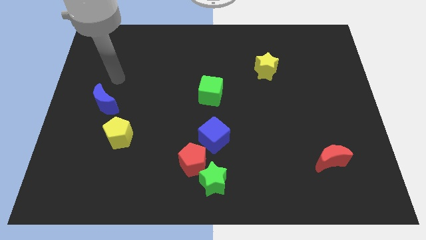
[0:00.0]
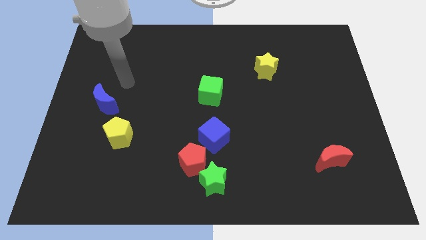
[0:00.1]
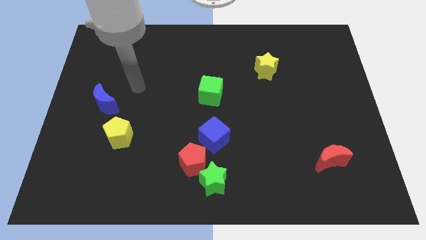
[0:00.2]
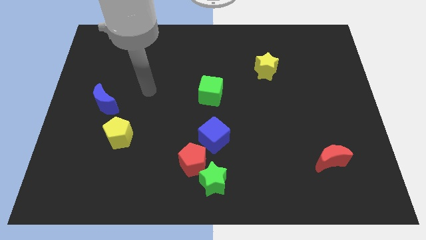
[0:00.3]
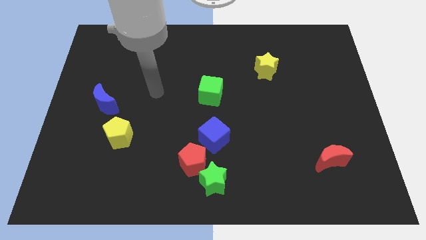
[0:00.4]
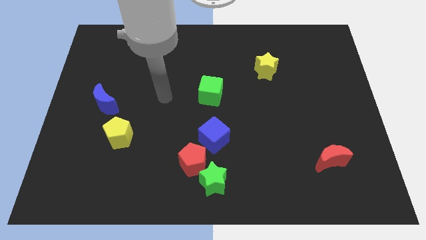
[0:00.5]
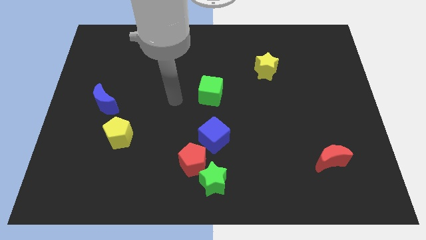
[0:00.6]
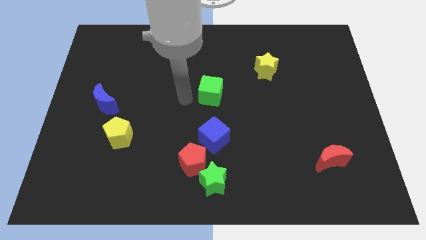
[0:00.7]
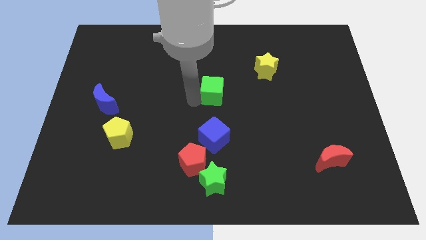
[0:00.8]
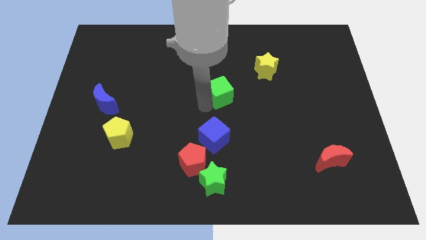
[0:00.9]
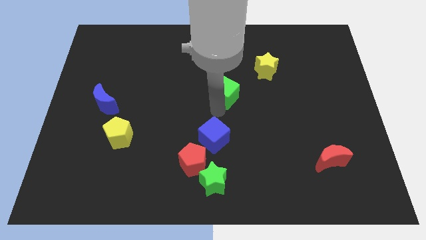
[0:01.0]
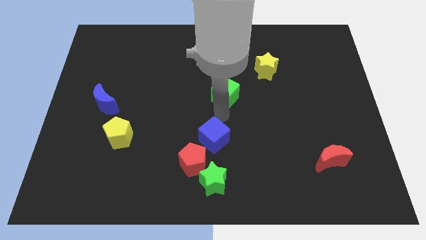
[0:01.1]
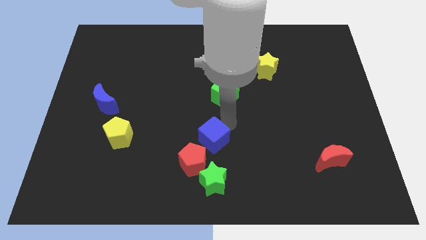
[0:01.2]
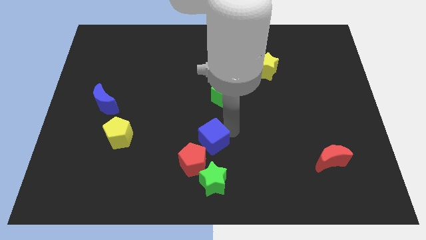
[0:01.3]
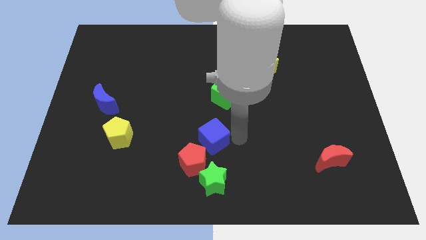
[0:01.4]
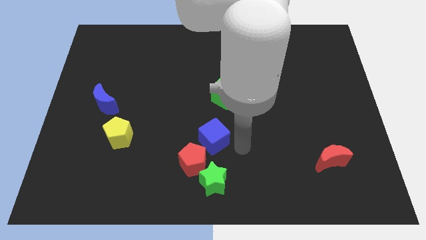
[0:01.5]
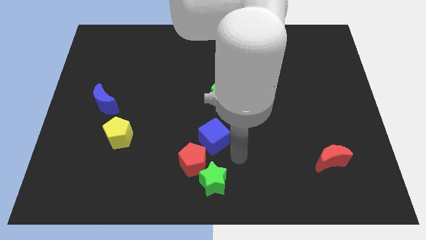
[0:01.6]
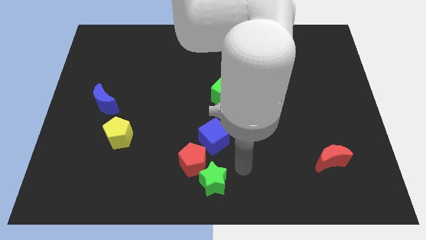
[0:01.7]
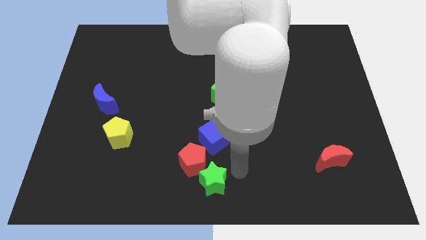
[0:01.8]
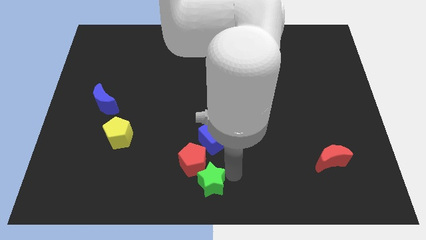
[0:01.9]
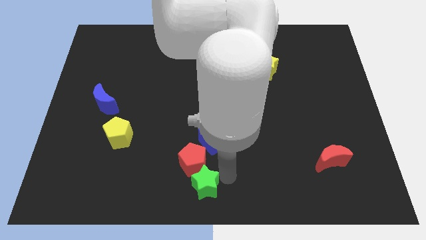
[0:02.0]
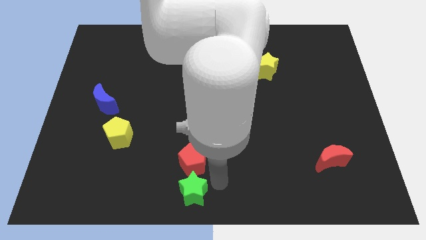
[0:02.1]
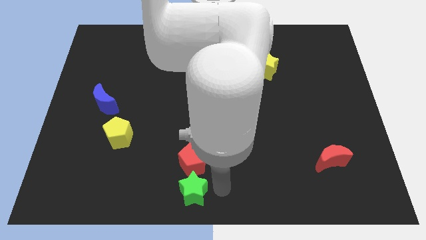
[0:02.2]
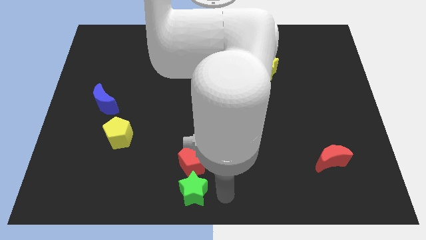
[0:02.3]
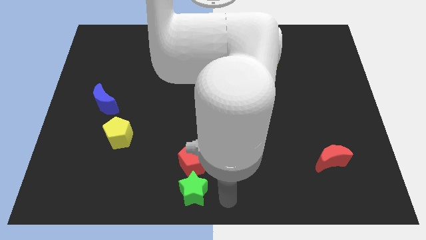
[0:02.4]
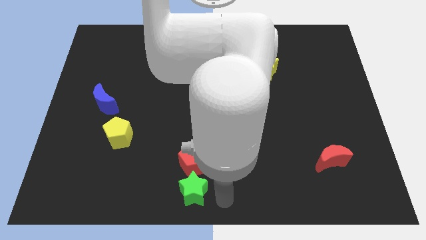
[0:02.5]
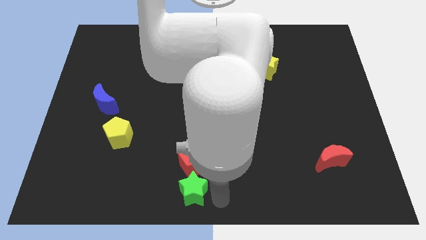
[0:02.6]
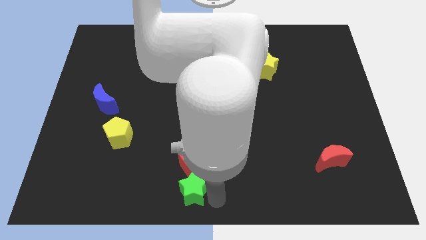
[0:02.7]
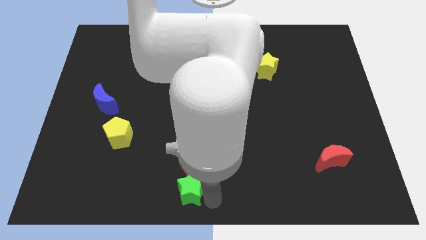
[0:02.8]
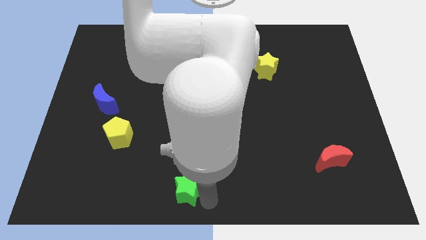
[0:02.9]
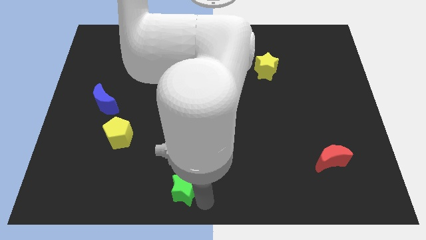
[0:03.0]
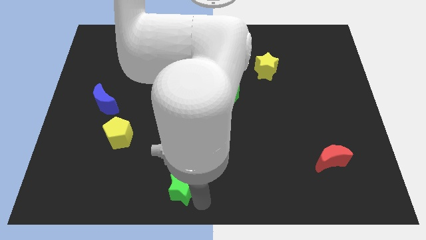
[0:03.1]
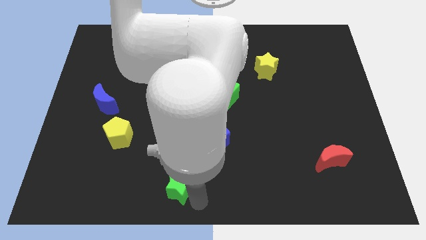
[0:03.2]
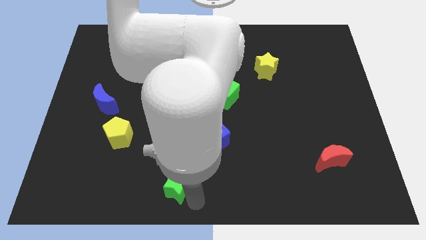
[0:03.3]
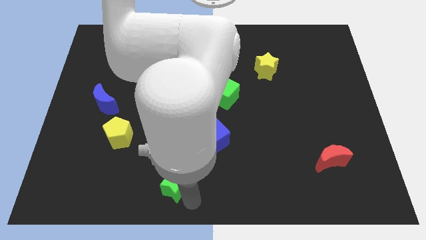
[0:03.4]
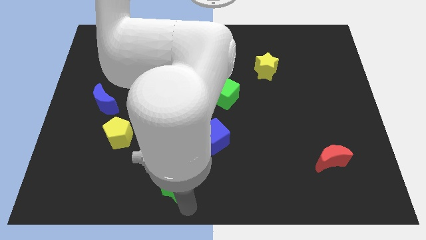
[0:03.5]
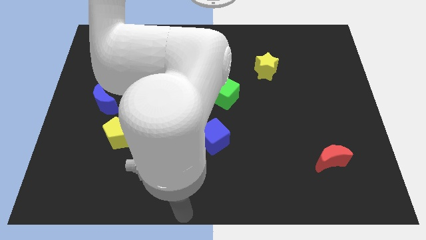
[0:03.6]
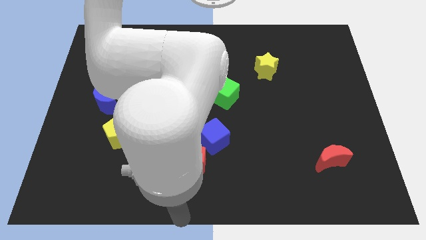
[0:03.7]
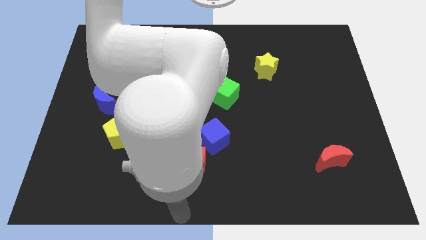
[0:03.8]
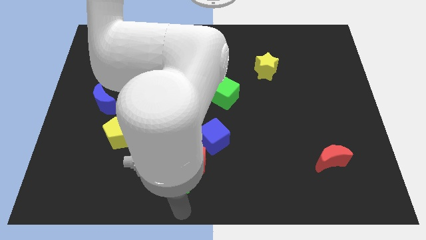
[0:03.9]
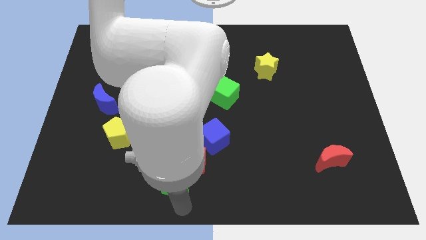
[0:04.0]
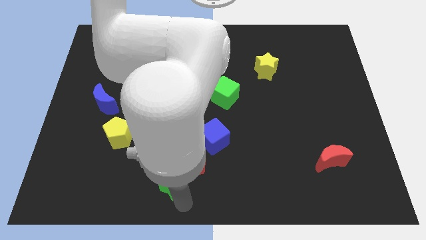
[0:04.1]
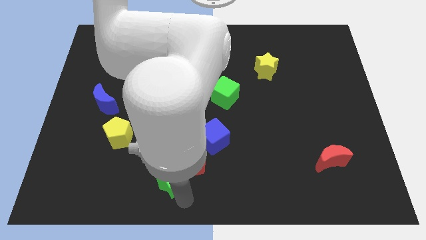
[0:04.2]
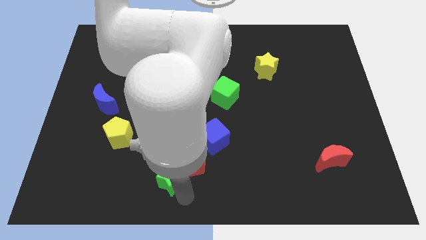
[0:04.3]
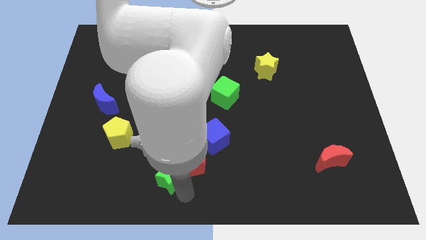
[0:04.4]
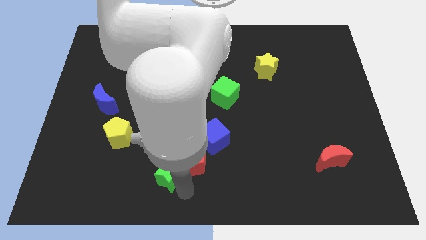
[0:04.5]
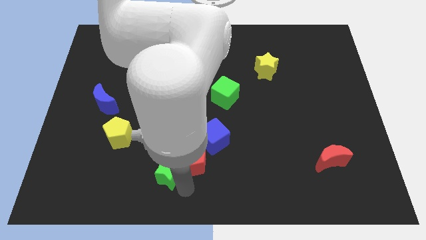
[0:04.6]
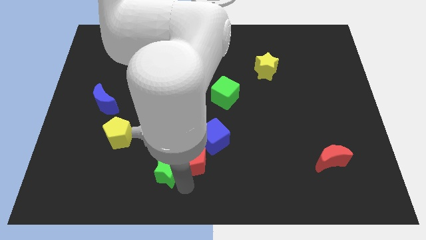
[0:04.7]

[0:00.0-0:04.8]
slightly push the green star up and to the left

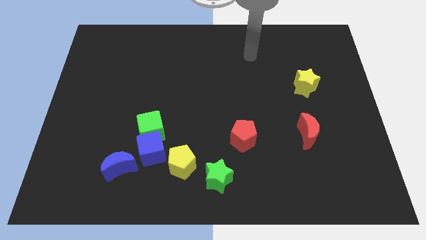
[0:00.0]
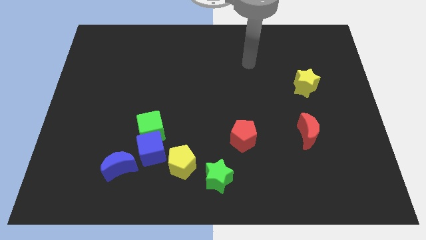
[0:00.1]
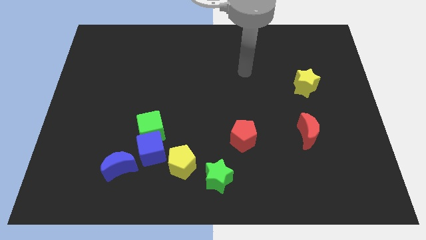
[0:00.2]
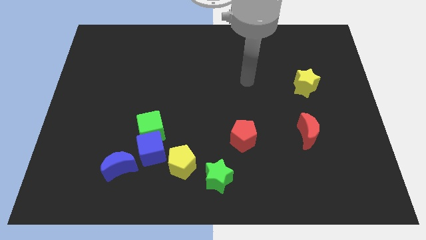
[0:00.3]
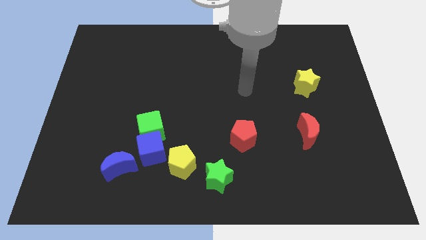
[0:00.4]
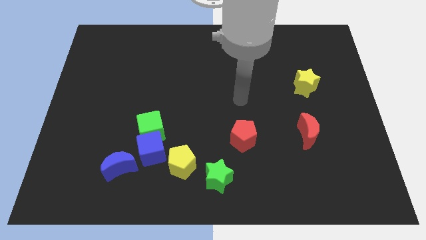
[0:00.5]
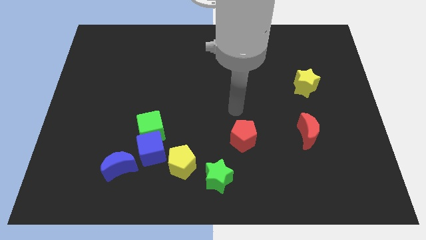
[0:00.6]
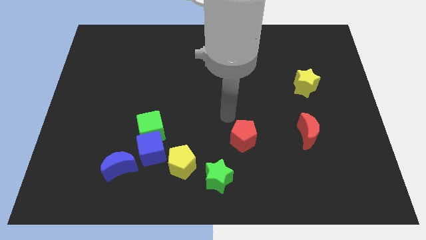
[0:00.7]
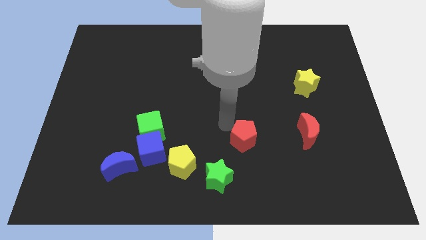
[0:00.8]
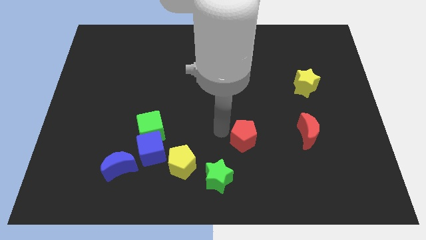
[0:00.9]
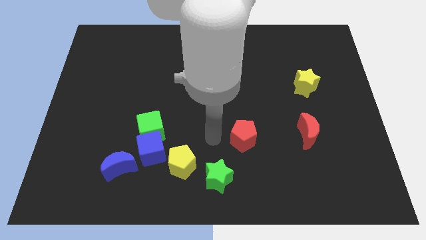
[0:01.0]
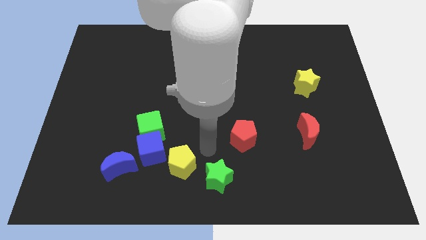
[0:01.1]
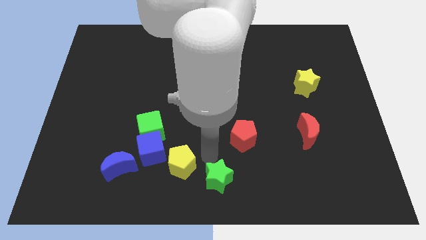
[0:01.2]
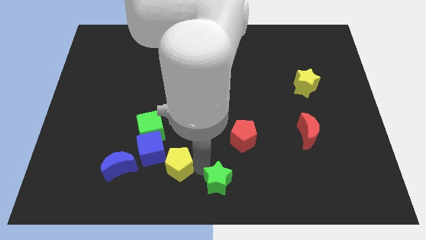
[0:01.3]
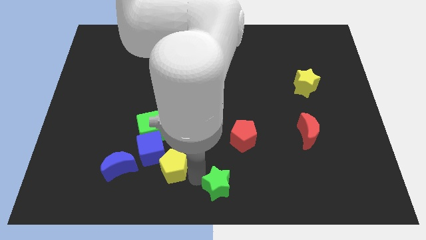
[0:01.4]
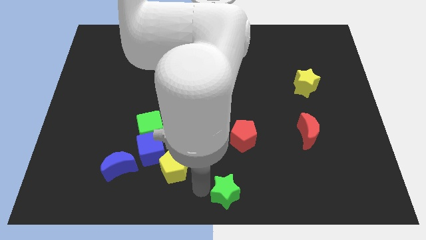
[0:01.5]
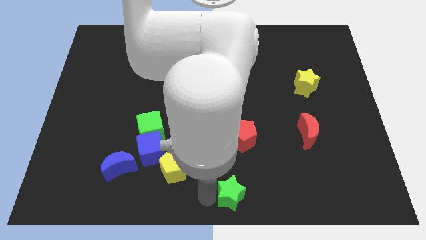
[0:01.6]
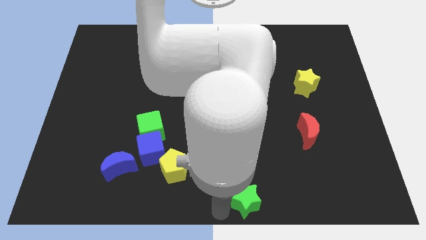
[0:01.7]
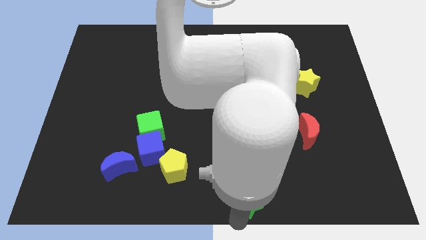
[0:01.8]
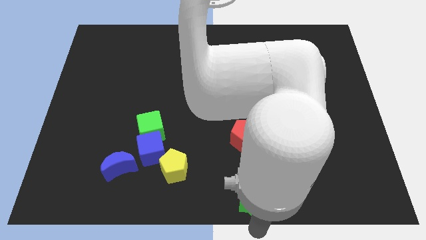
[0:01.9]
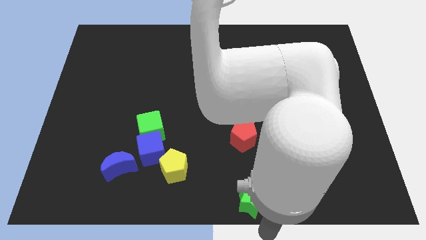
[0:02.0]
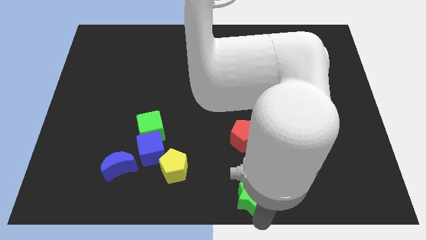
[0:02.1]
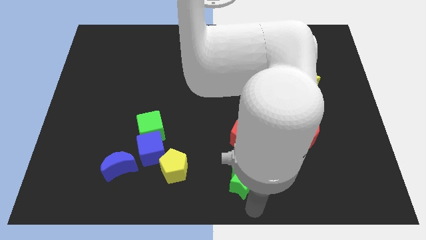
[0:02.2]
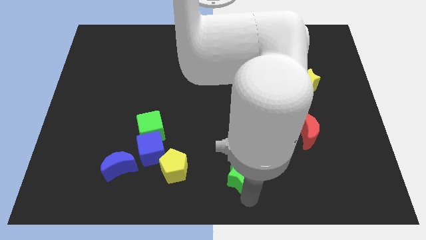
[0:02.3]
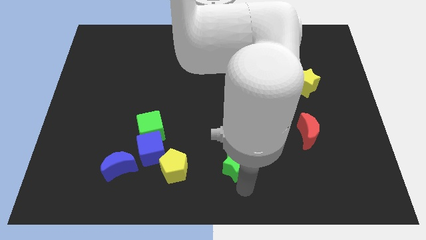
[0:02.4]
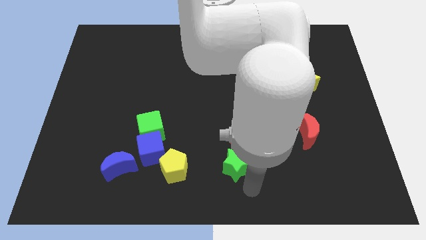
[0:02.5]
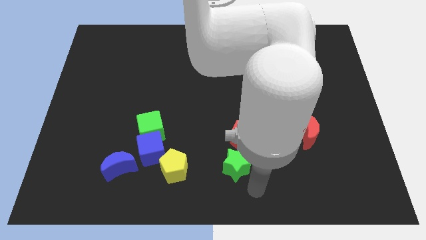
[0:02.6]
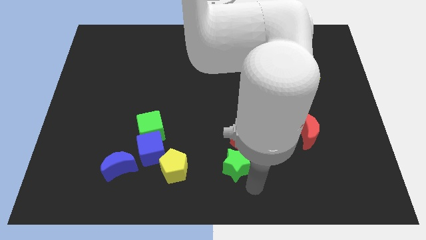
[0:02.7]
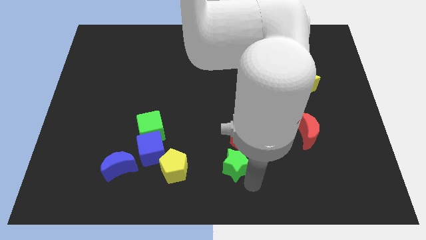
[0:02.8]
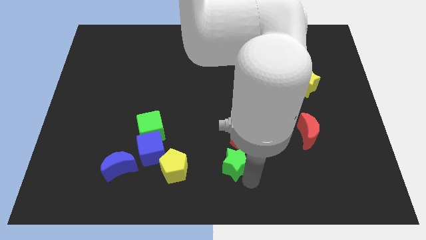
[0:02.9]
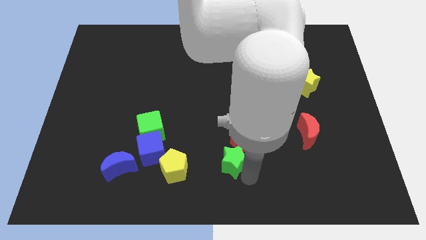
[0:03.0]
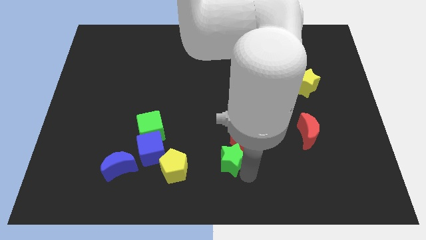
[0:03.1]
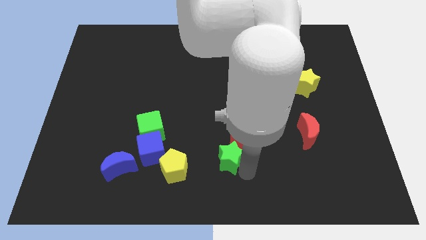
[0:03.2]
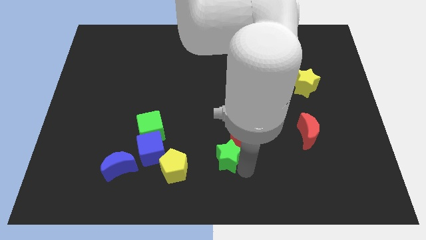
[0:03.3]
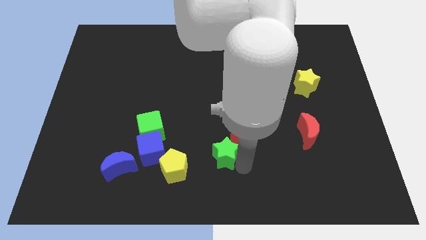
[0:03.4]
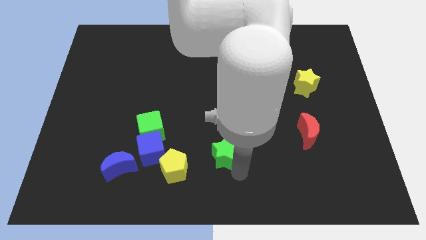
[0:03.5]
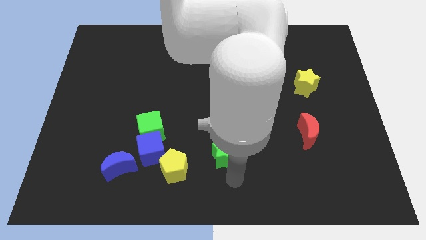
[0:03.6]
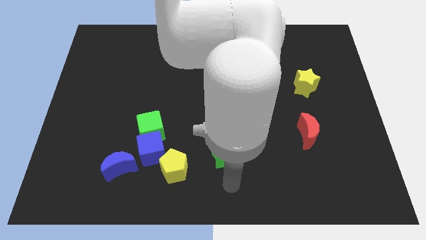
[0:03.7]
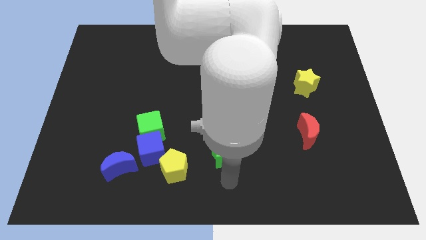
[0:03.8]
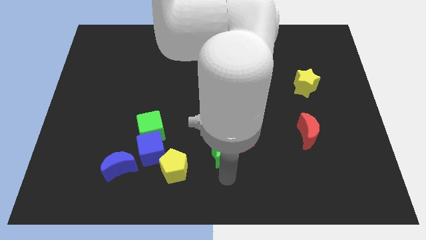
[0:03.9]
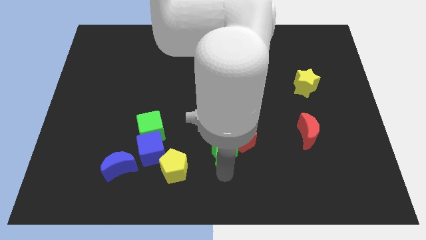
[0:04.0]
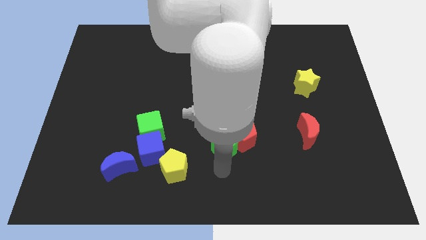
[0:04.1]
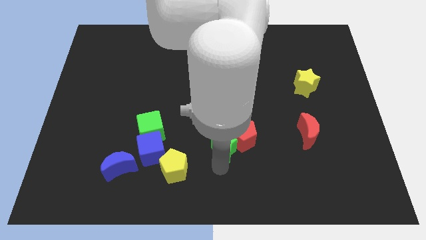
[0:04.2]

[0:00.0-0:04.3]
move the green star slightly upwards
